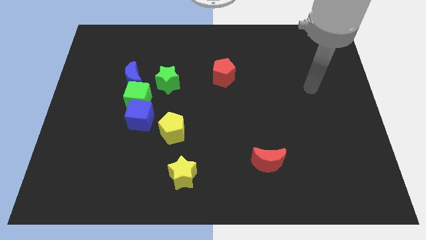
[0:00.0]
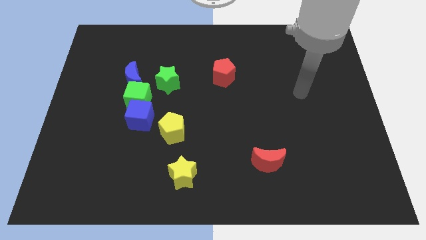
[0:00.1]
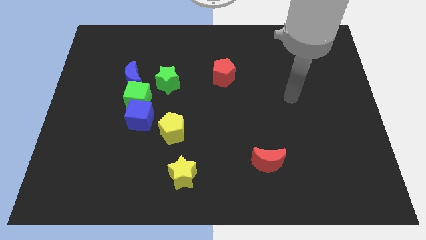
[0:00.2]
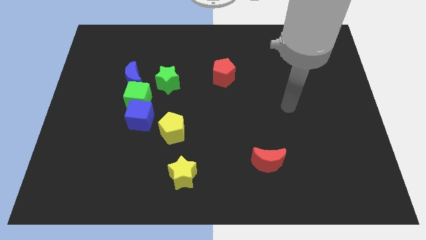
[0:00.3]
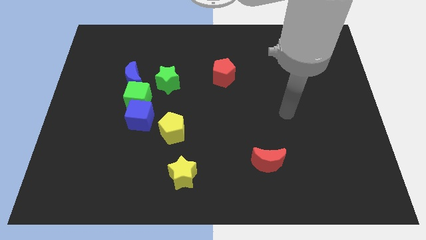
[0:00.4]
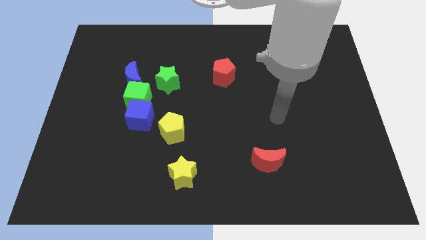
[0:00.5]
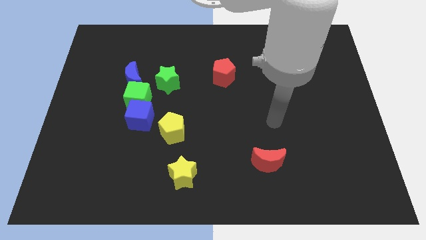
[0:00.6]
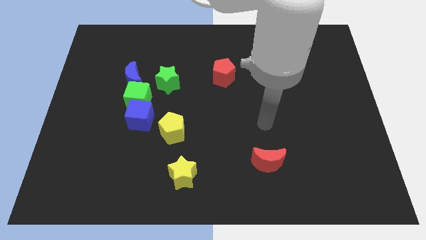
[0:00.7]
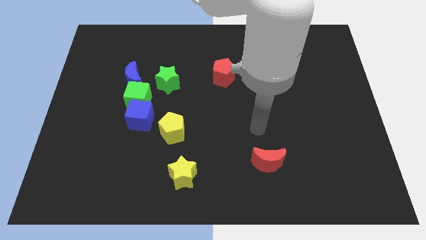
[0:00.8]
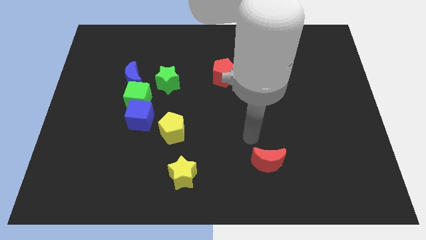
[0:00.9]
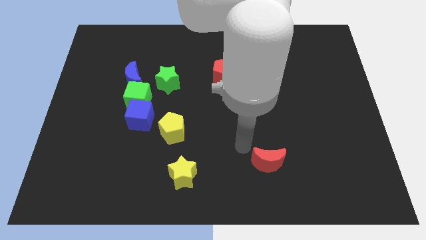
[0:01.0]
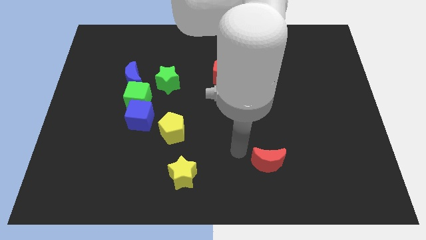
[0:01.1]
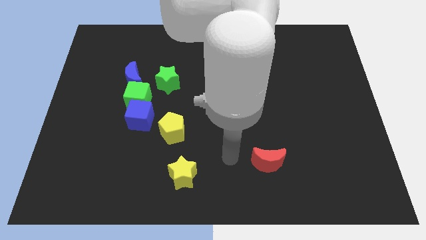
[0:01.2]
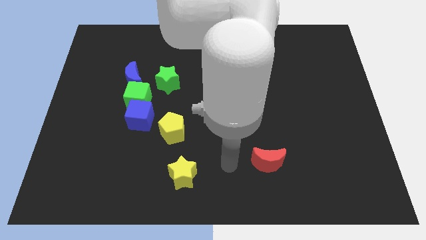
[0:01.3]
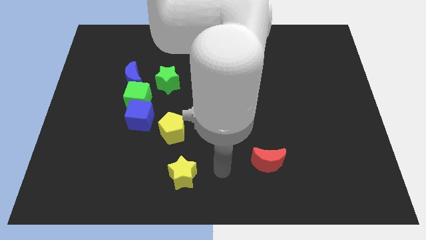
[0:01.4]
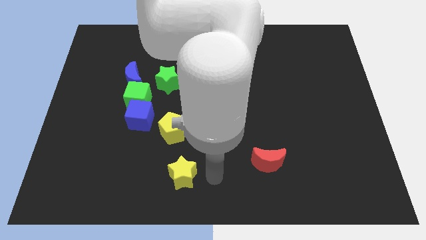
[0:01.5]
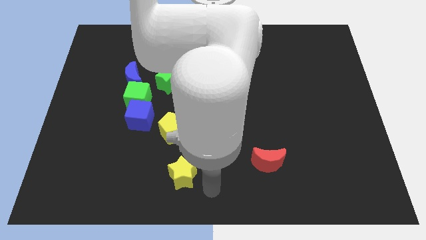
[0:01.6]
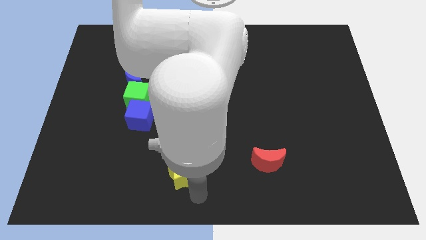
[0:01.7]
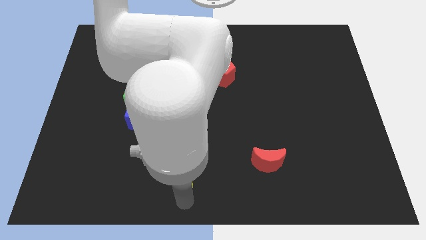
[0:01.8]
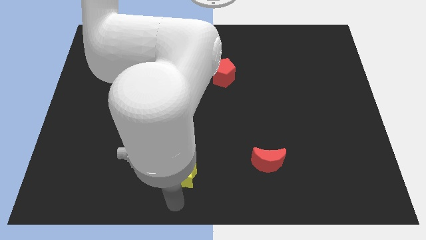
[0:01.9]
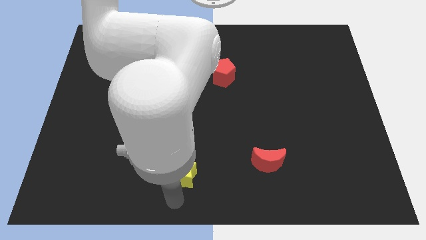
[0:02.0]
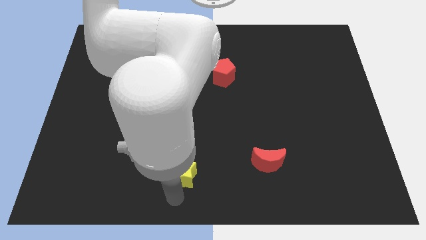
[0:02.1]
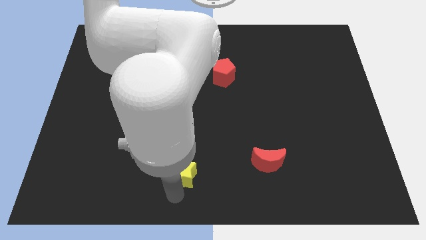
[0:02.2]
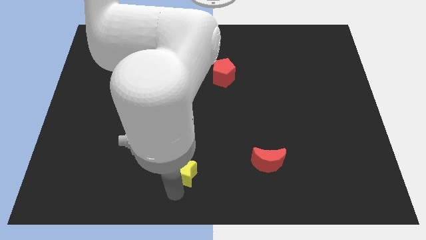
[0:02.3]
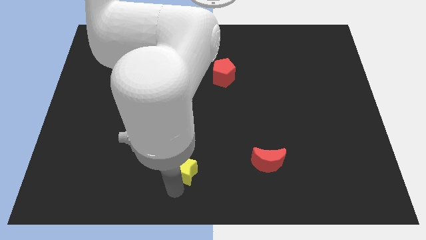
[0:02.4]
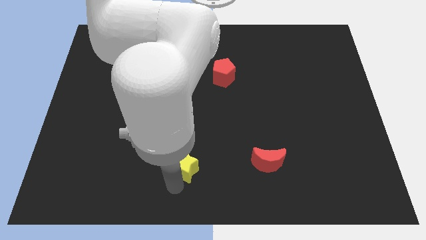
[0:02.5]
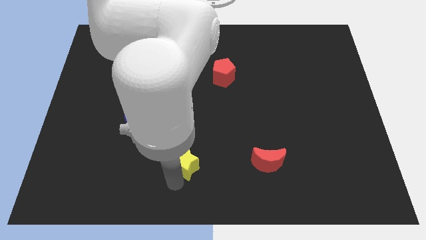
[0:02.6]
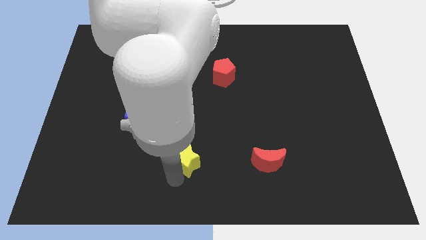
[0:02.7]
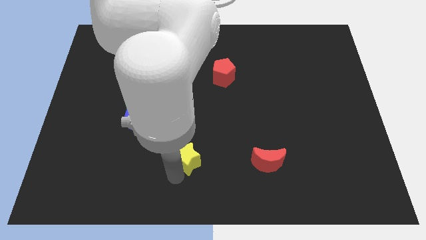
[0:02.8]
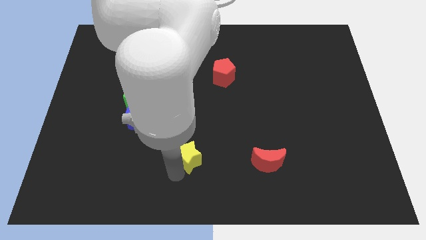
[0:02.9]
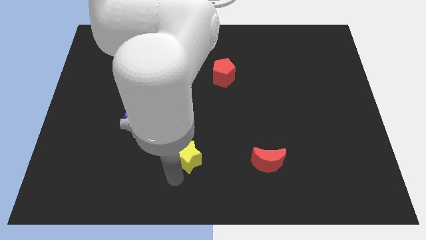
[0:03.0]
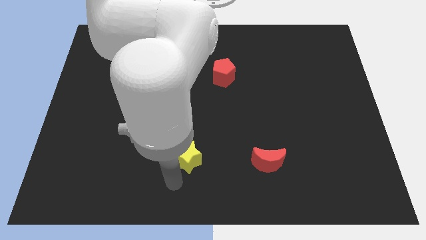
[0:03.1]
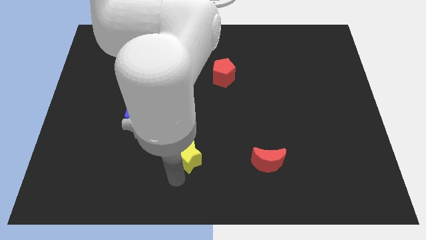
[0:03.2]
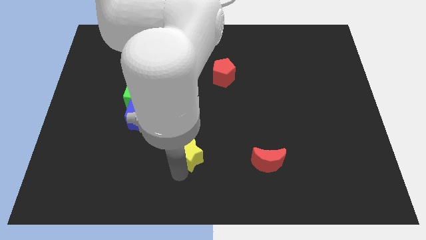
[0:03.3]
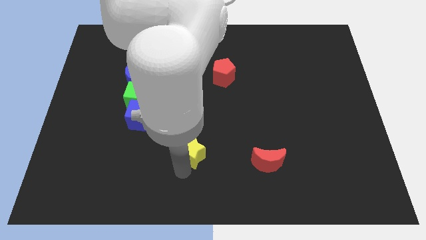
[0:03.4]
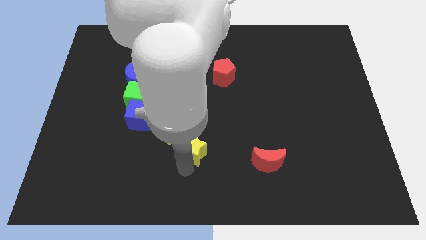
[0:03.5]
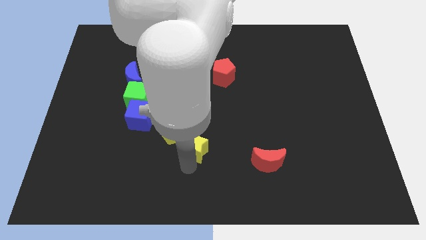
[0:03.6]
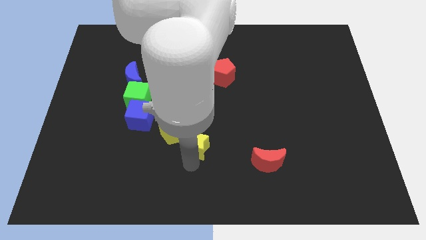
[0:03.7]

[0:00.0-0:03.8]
move the yellow star upwards a little bit

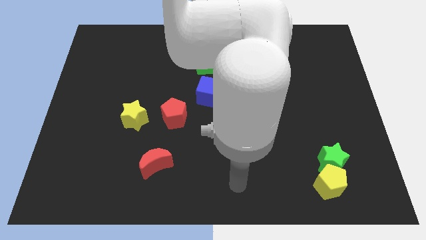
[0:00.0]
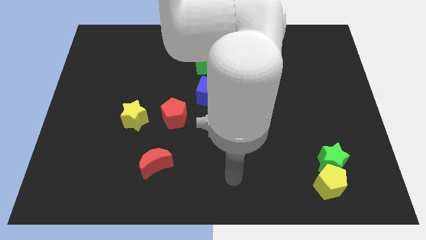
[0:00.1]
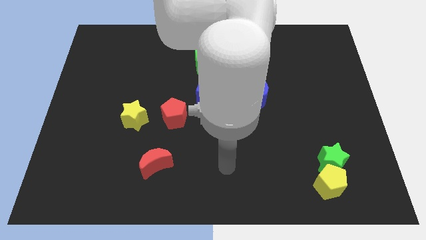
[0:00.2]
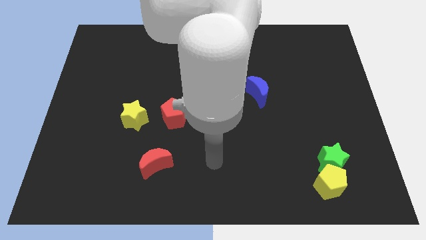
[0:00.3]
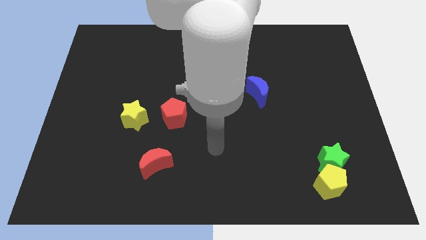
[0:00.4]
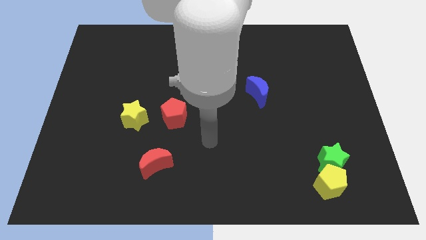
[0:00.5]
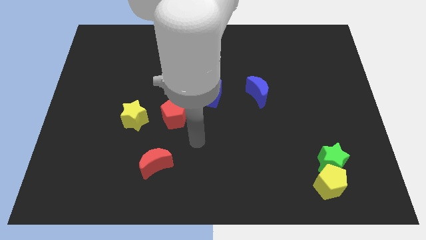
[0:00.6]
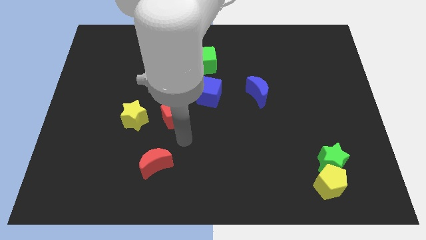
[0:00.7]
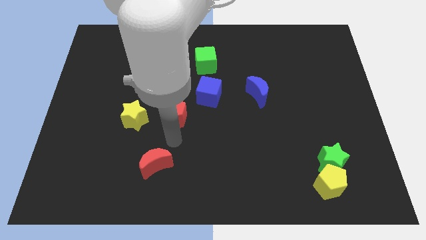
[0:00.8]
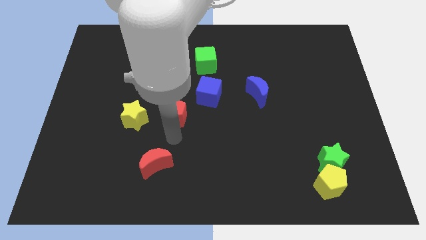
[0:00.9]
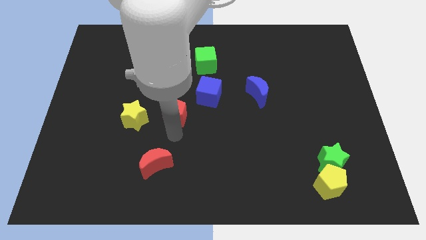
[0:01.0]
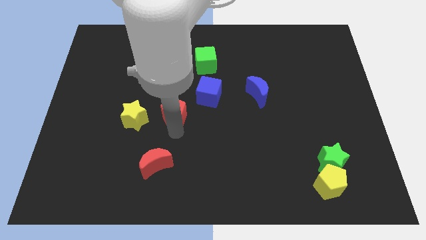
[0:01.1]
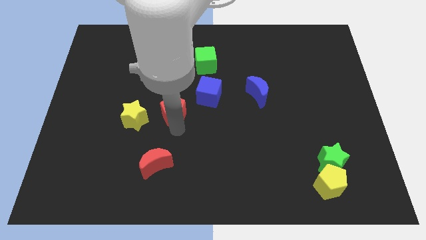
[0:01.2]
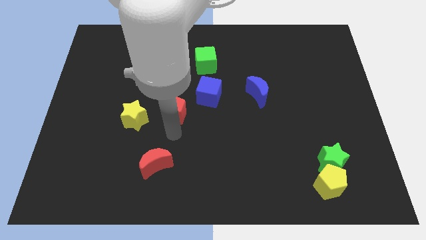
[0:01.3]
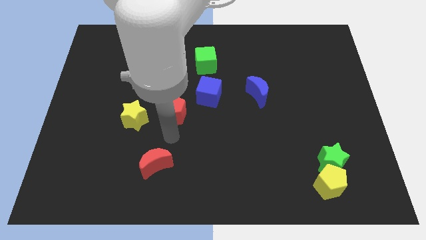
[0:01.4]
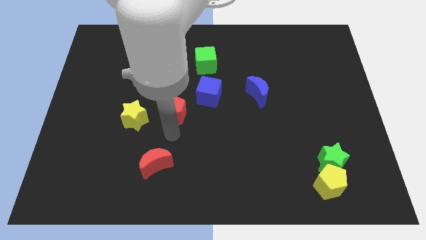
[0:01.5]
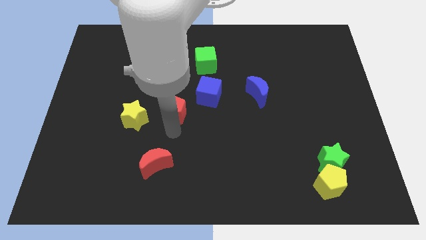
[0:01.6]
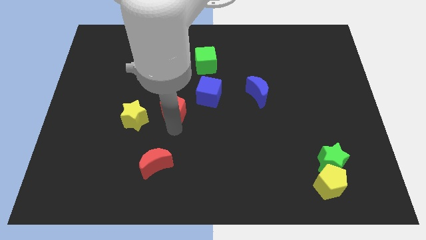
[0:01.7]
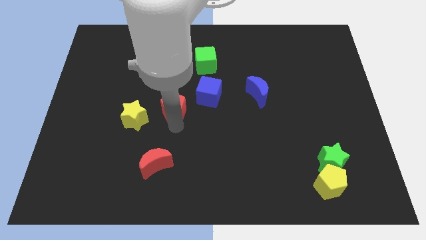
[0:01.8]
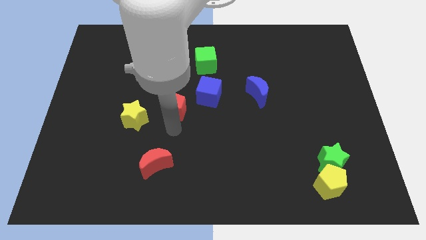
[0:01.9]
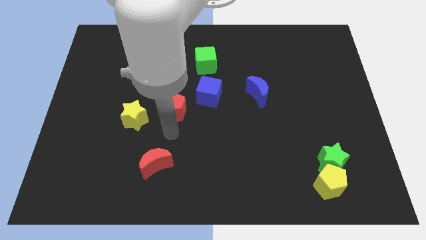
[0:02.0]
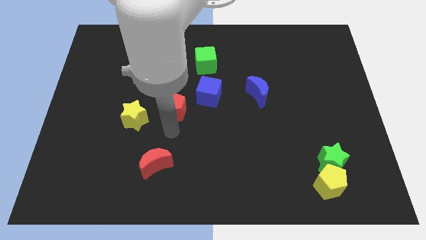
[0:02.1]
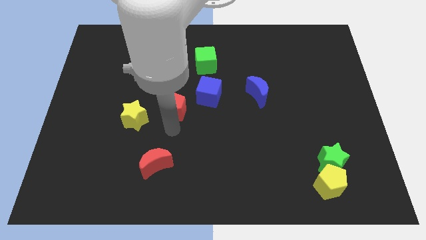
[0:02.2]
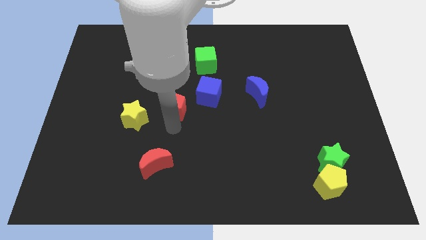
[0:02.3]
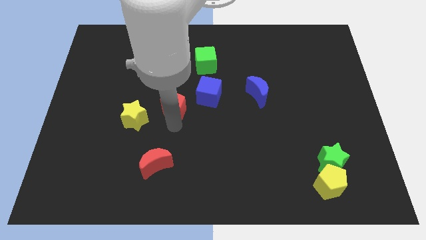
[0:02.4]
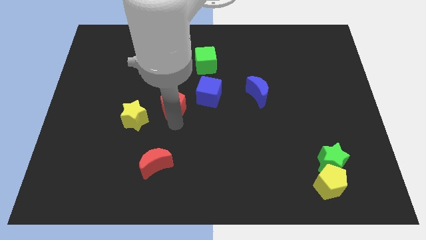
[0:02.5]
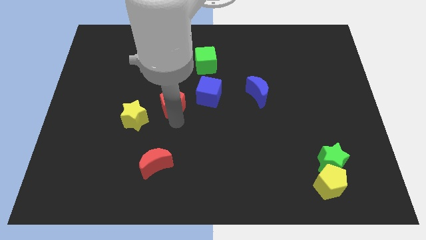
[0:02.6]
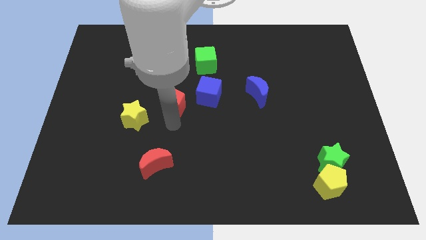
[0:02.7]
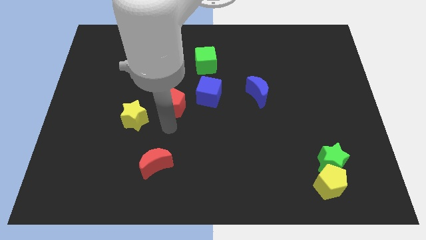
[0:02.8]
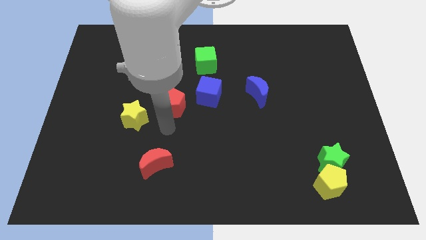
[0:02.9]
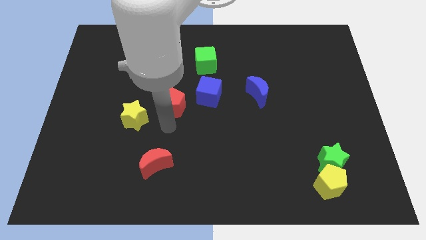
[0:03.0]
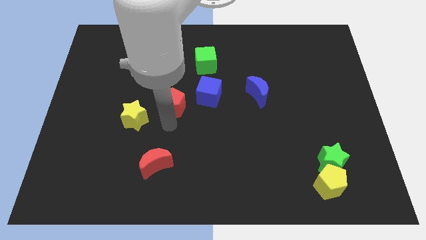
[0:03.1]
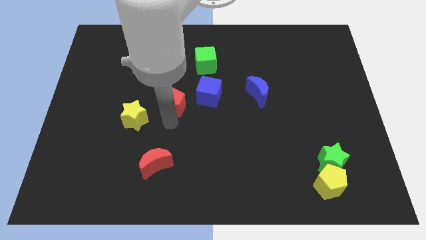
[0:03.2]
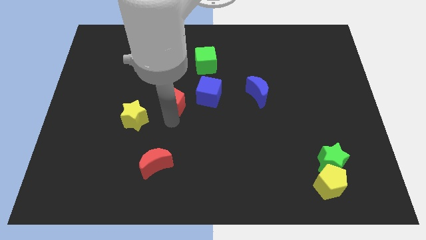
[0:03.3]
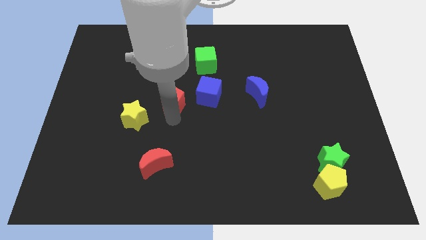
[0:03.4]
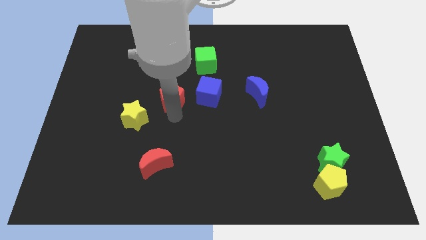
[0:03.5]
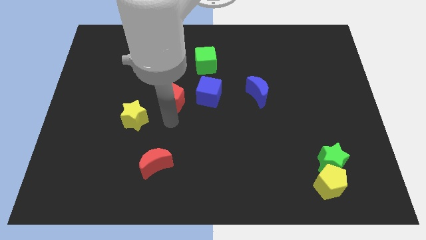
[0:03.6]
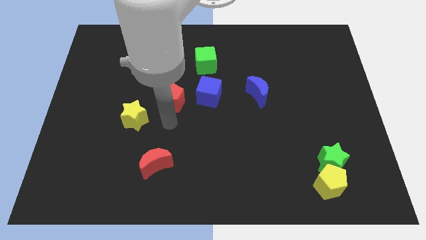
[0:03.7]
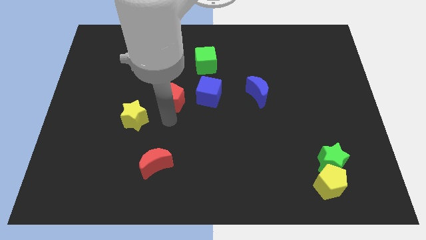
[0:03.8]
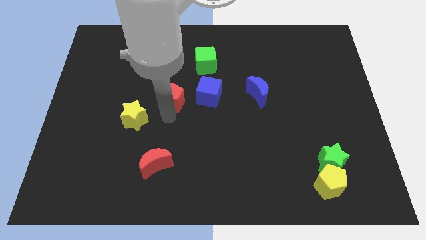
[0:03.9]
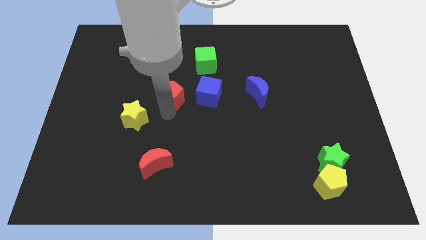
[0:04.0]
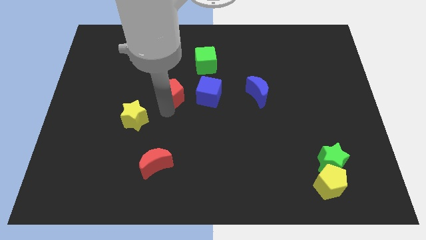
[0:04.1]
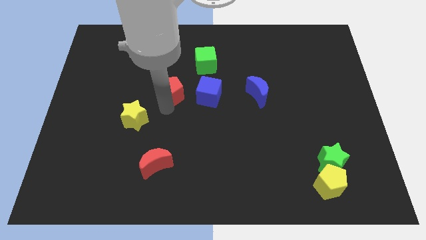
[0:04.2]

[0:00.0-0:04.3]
push the red pentagon slightly up
